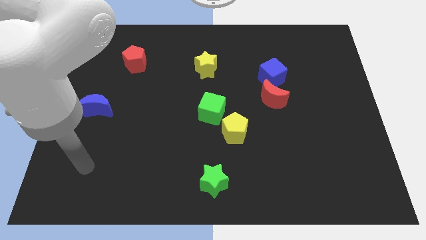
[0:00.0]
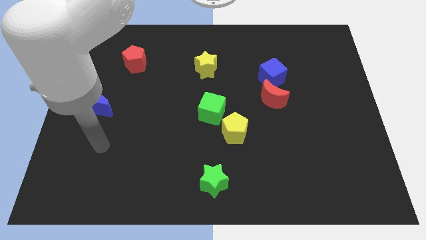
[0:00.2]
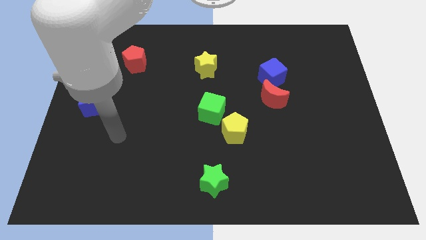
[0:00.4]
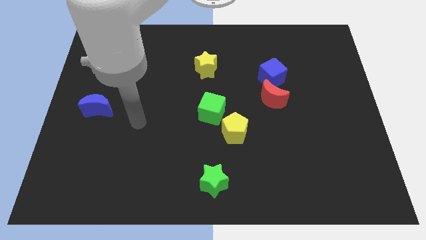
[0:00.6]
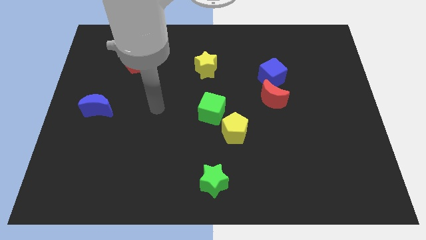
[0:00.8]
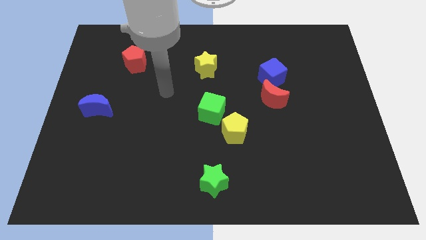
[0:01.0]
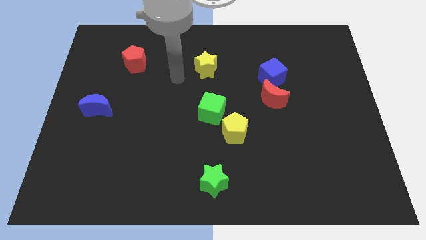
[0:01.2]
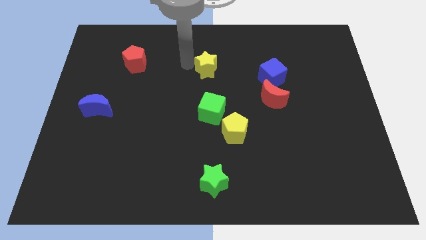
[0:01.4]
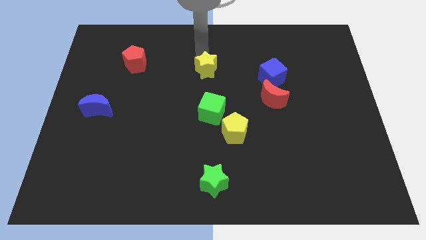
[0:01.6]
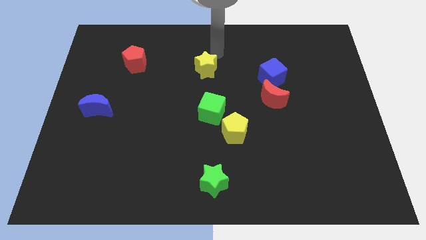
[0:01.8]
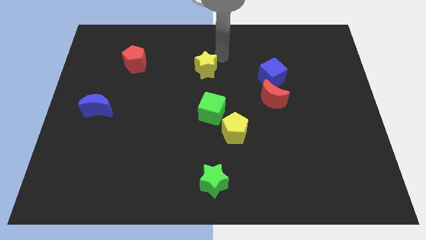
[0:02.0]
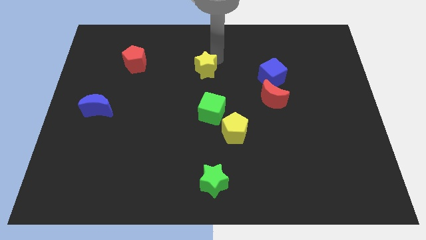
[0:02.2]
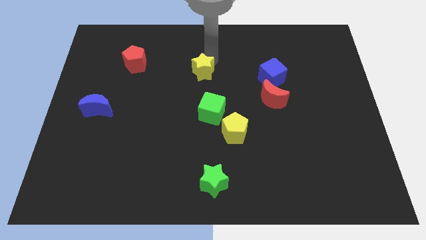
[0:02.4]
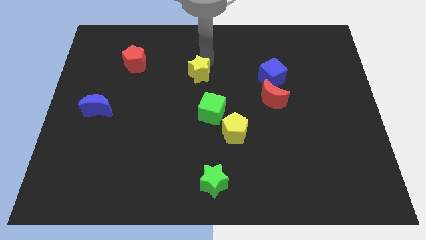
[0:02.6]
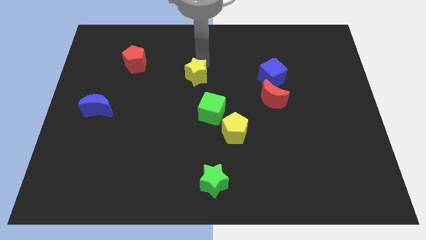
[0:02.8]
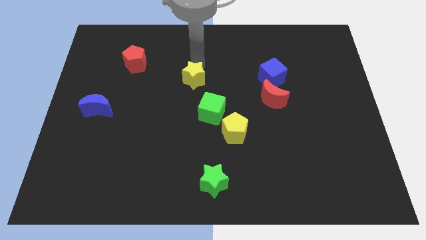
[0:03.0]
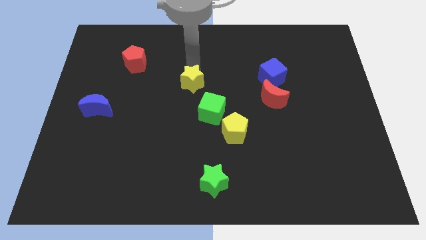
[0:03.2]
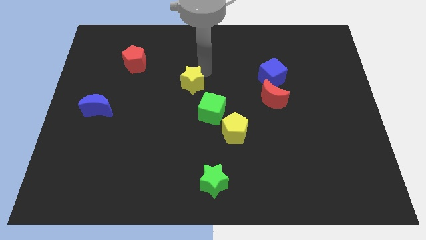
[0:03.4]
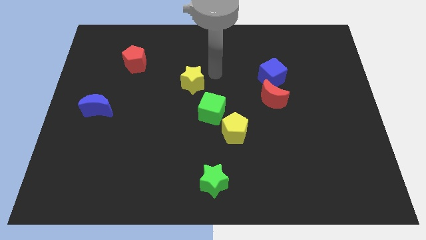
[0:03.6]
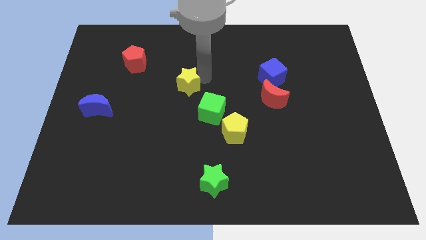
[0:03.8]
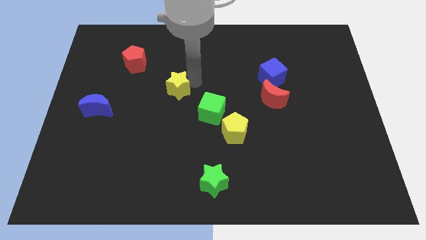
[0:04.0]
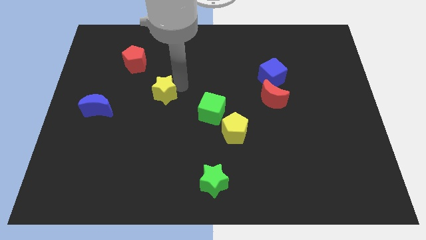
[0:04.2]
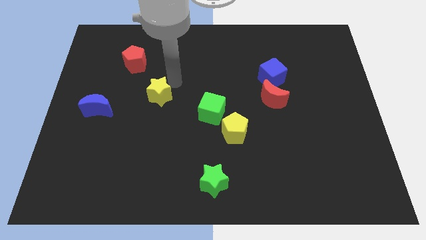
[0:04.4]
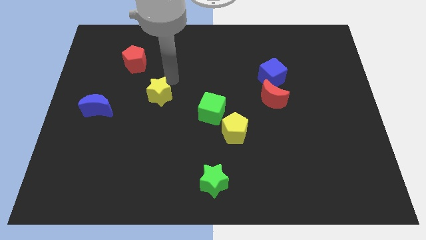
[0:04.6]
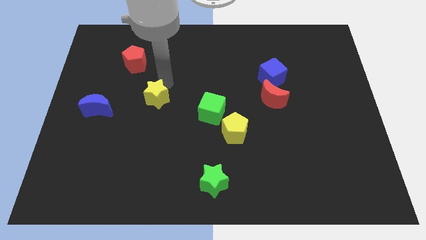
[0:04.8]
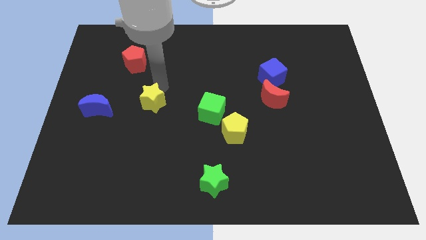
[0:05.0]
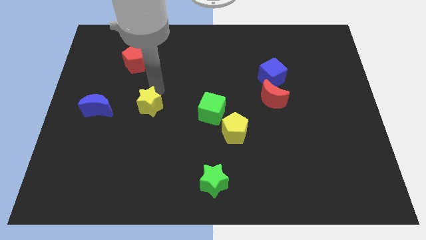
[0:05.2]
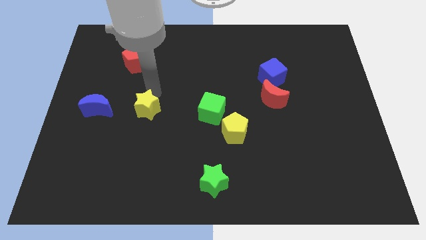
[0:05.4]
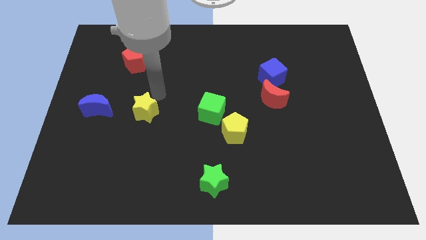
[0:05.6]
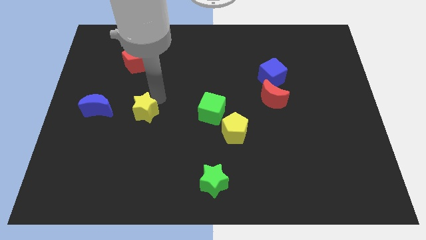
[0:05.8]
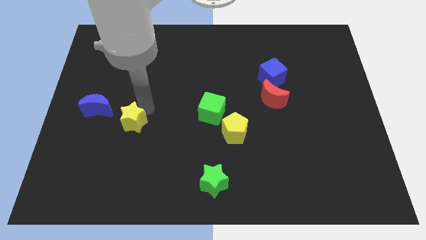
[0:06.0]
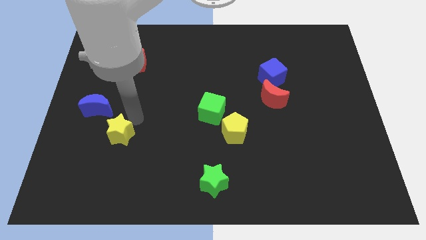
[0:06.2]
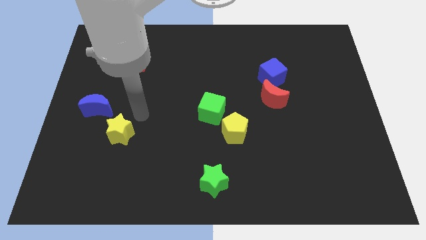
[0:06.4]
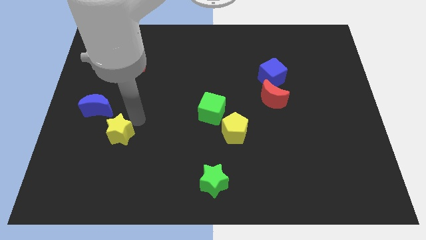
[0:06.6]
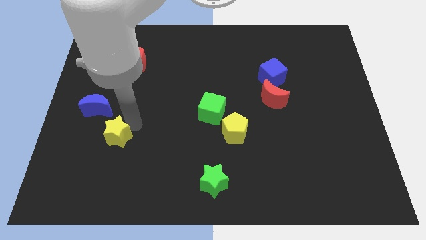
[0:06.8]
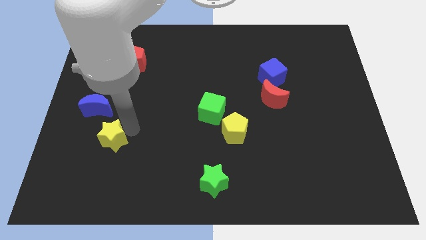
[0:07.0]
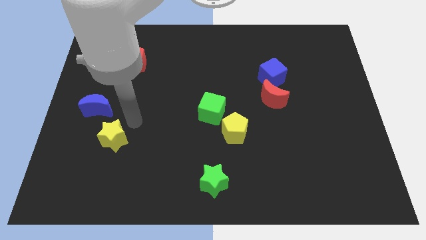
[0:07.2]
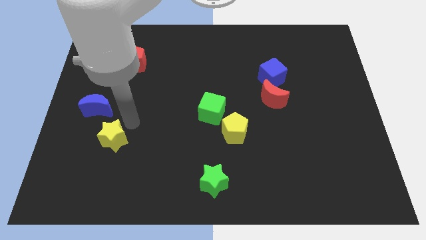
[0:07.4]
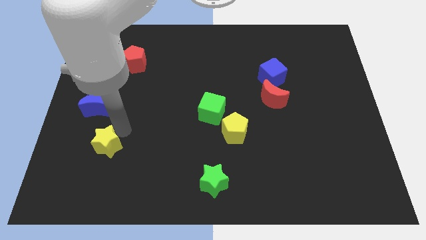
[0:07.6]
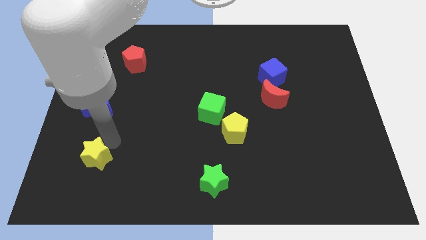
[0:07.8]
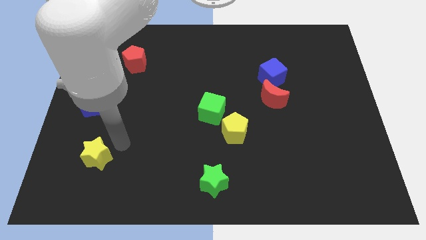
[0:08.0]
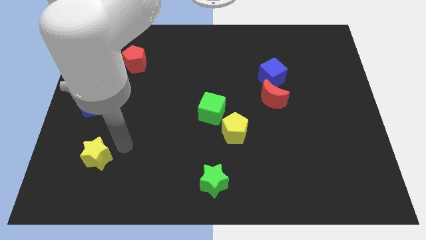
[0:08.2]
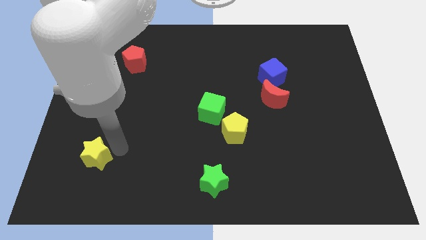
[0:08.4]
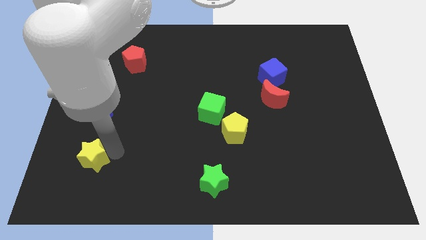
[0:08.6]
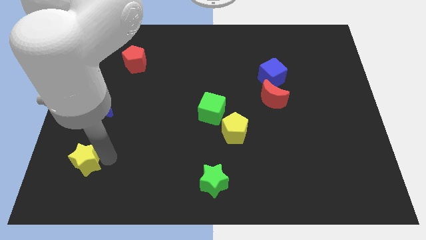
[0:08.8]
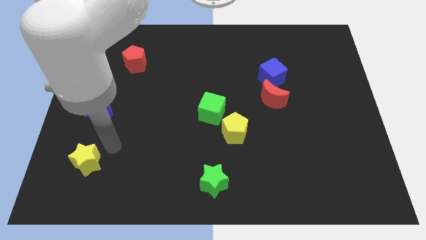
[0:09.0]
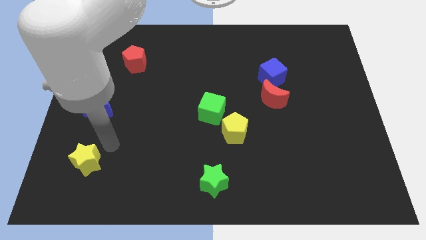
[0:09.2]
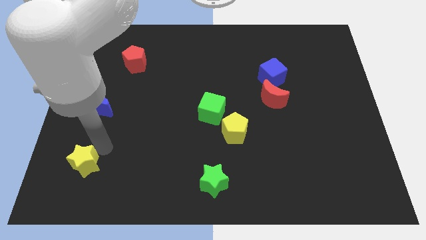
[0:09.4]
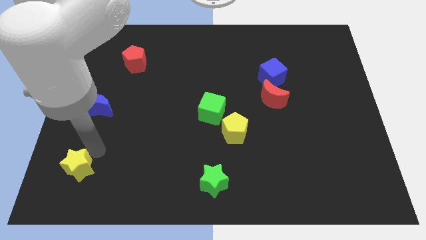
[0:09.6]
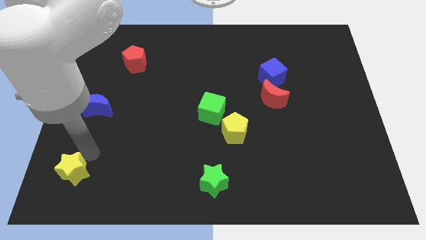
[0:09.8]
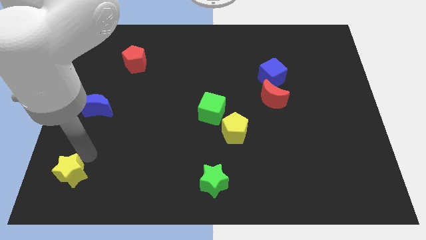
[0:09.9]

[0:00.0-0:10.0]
put the yellow star to the lower left corner

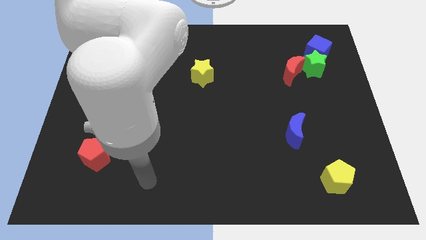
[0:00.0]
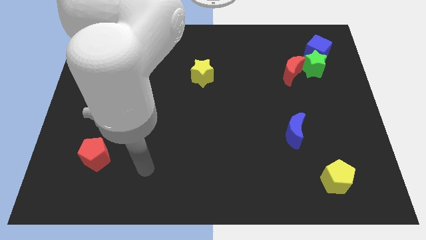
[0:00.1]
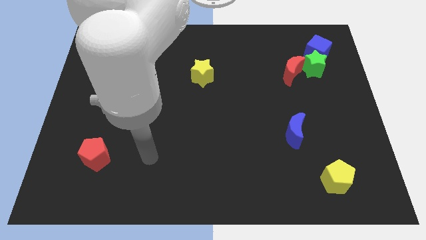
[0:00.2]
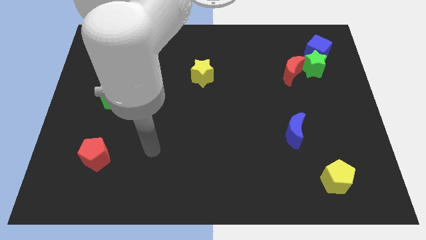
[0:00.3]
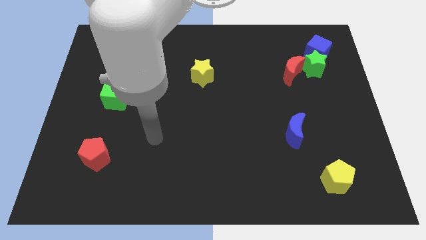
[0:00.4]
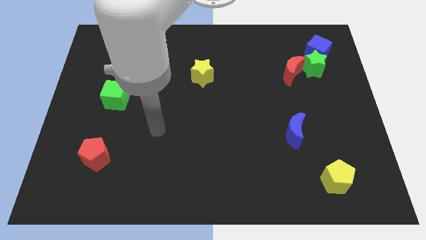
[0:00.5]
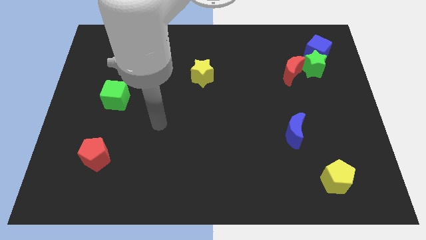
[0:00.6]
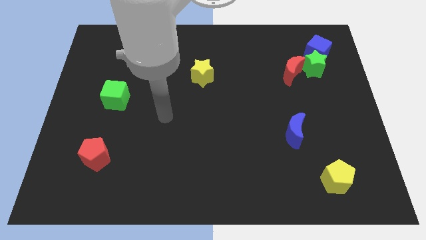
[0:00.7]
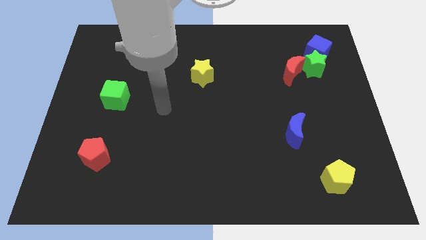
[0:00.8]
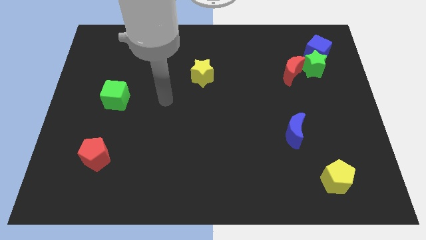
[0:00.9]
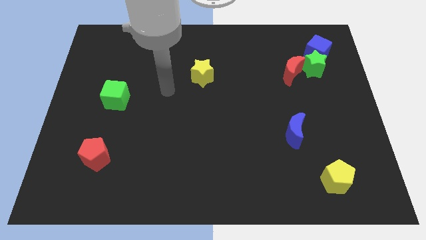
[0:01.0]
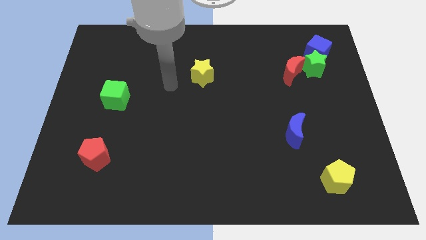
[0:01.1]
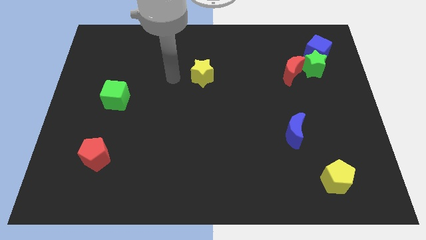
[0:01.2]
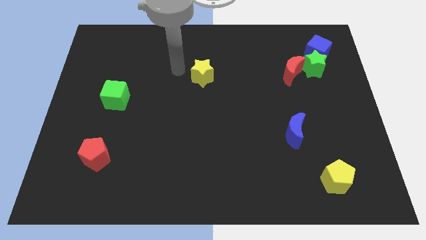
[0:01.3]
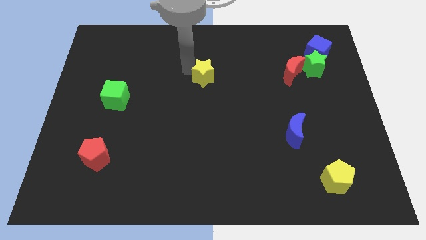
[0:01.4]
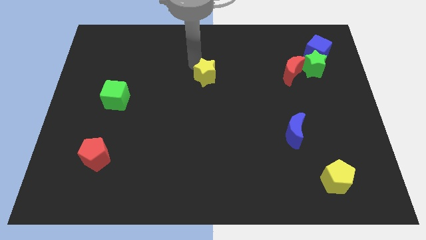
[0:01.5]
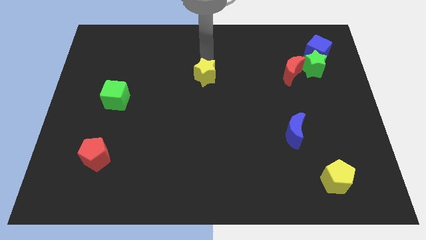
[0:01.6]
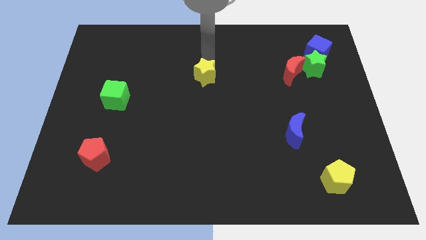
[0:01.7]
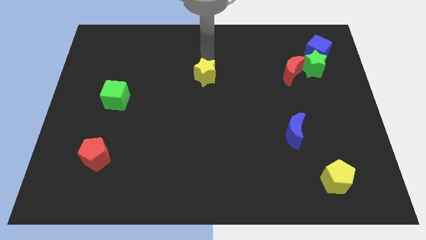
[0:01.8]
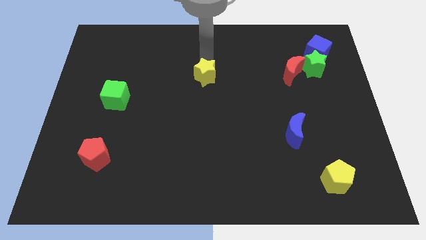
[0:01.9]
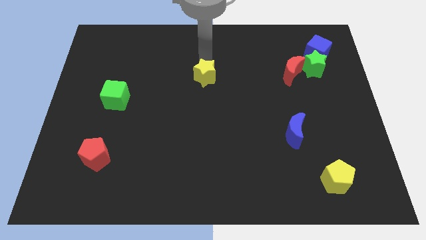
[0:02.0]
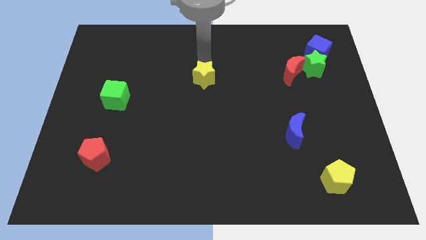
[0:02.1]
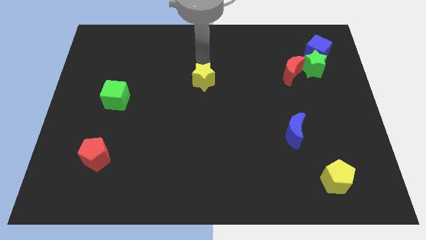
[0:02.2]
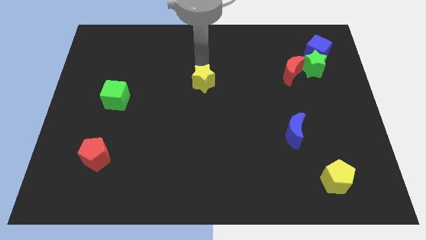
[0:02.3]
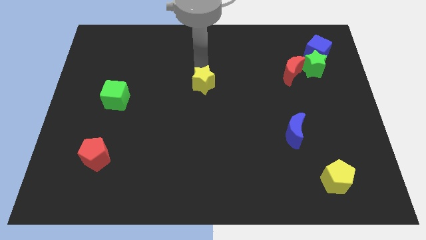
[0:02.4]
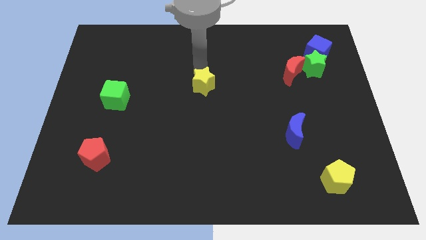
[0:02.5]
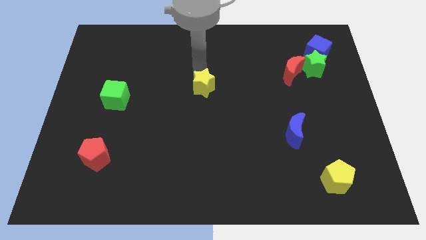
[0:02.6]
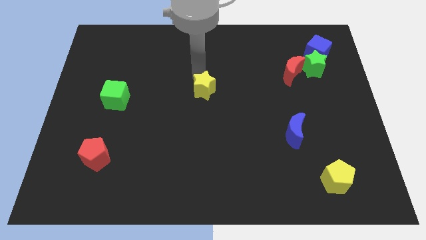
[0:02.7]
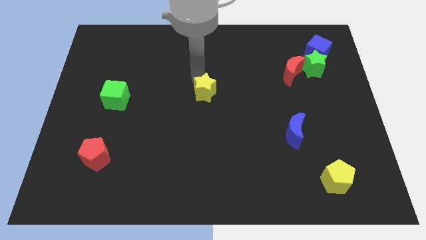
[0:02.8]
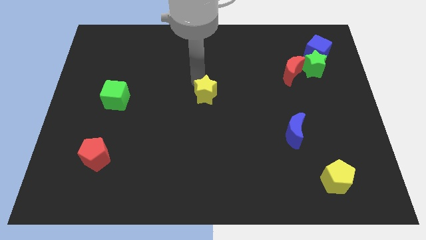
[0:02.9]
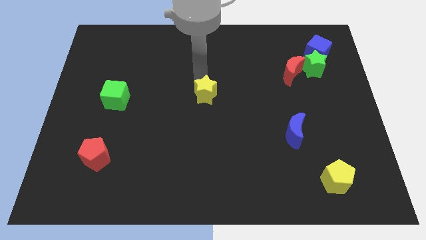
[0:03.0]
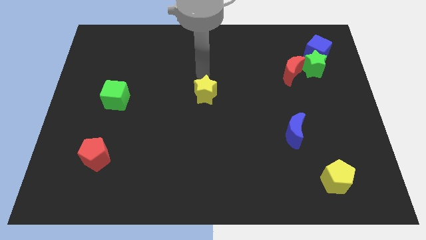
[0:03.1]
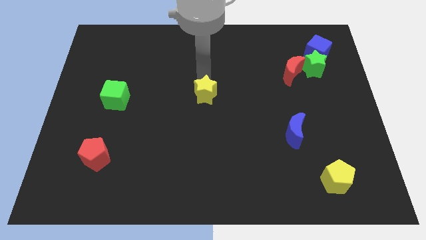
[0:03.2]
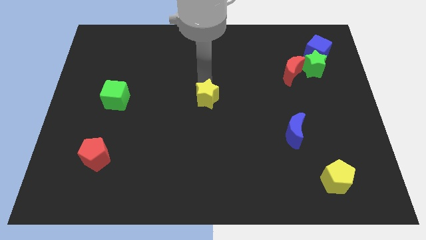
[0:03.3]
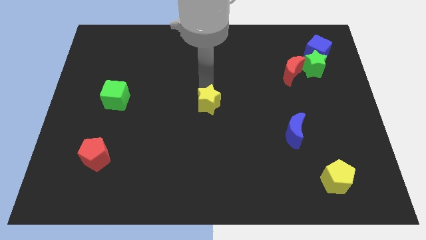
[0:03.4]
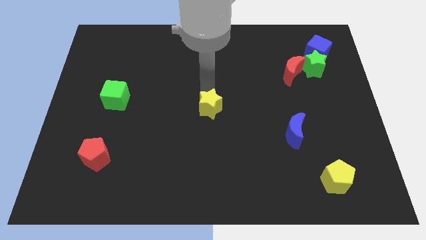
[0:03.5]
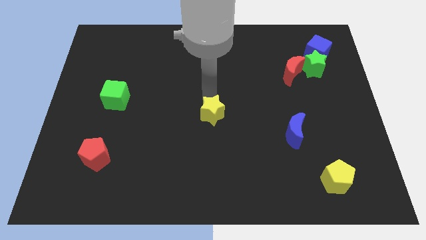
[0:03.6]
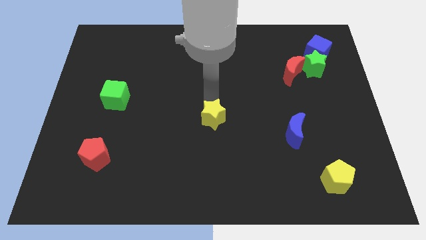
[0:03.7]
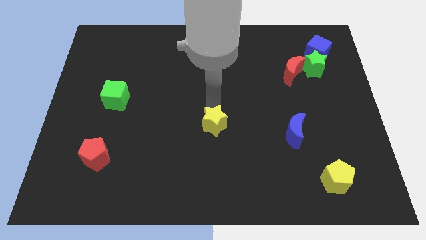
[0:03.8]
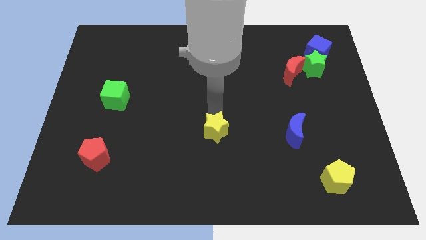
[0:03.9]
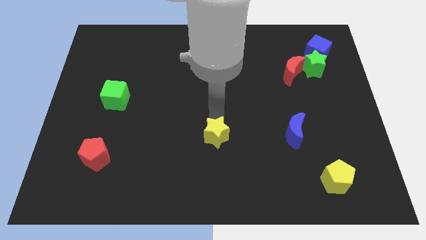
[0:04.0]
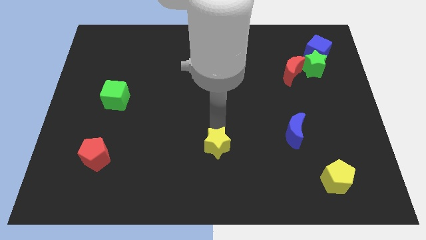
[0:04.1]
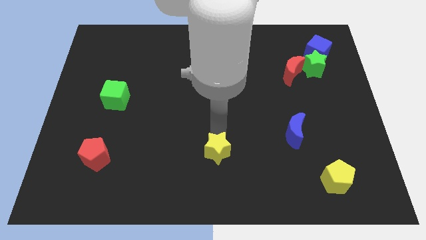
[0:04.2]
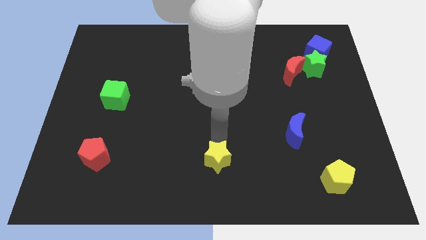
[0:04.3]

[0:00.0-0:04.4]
put the yellow star to the bottom
